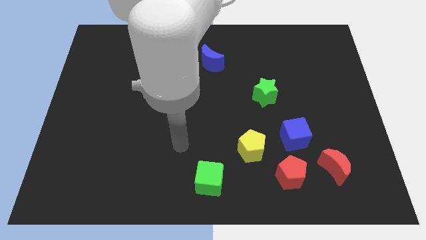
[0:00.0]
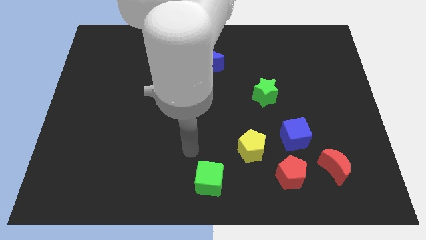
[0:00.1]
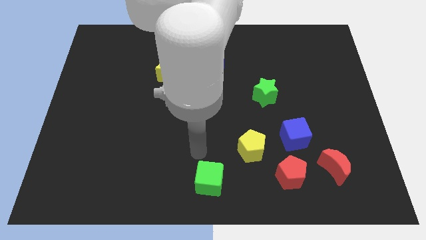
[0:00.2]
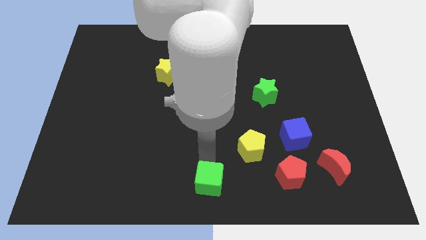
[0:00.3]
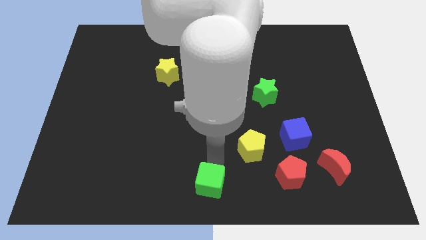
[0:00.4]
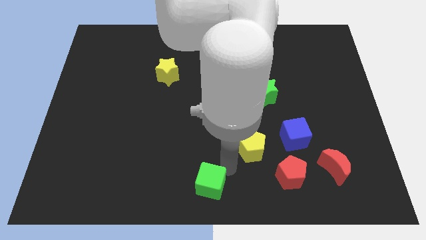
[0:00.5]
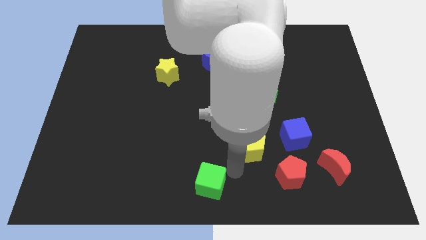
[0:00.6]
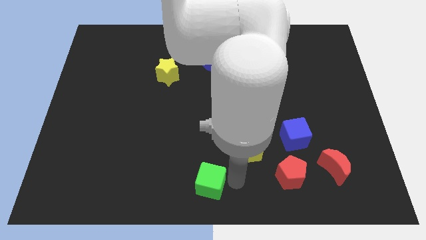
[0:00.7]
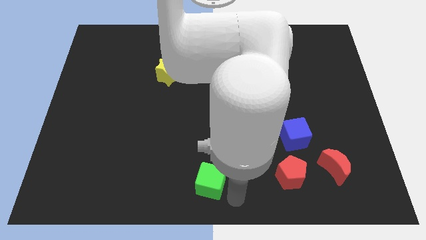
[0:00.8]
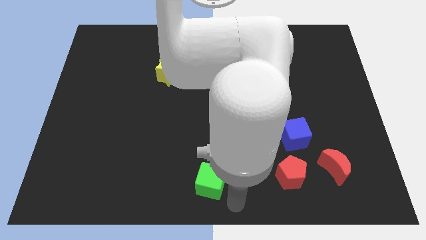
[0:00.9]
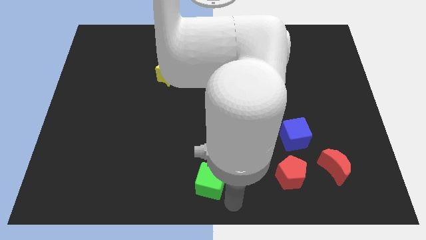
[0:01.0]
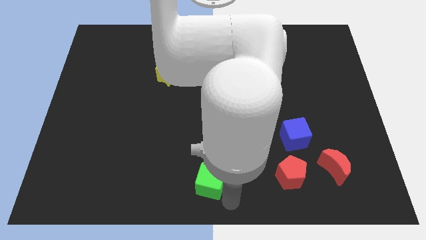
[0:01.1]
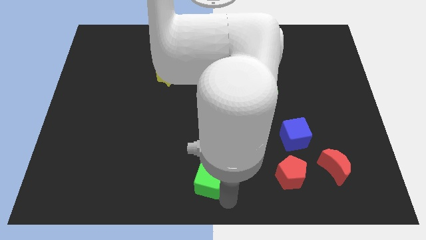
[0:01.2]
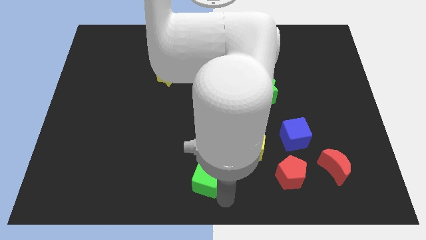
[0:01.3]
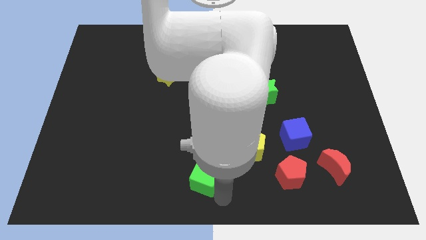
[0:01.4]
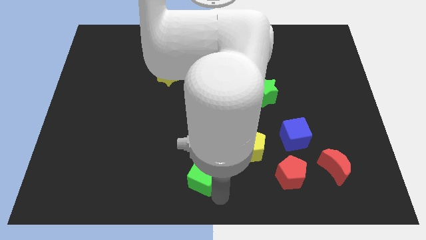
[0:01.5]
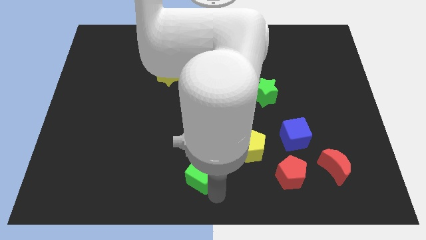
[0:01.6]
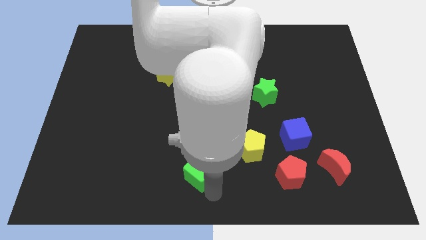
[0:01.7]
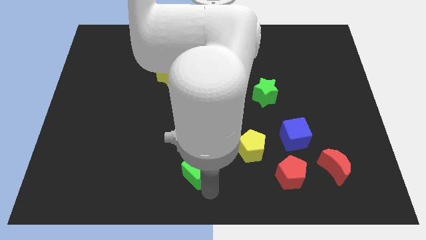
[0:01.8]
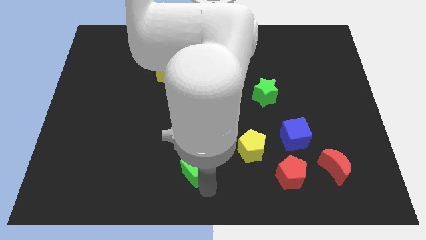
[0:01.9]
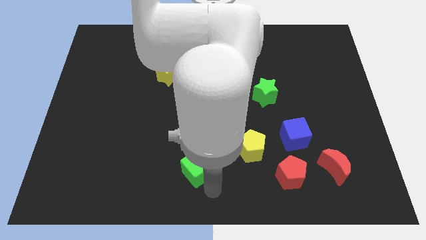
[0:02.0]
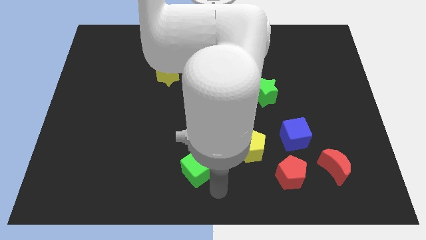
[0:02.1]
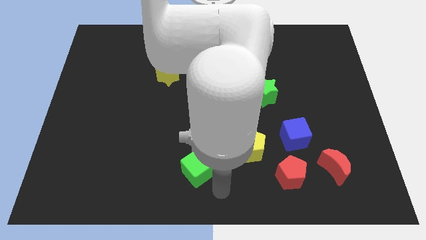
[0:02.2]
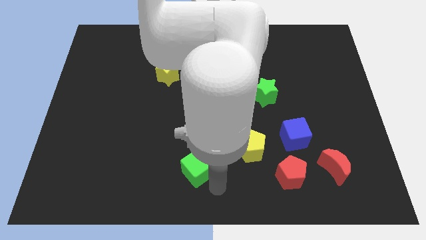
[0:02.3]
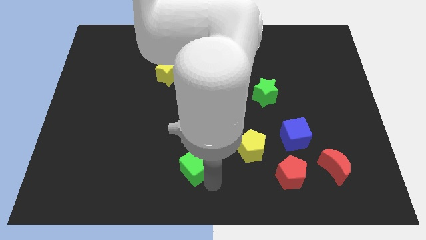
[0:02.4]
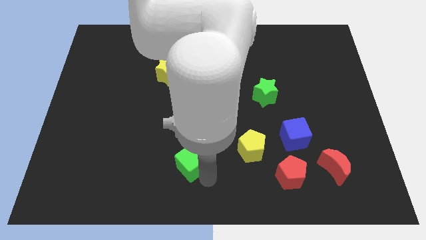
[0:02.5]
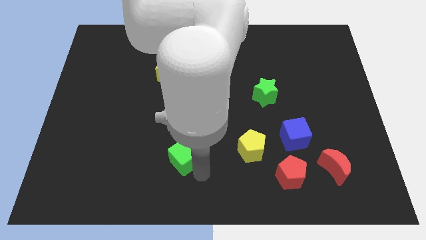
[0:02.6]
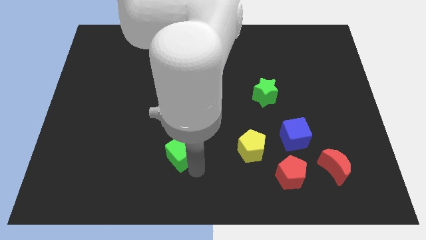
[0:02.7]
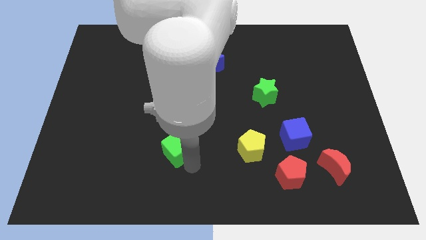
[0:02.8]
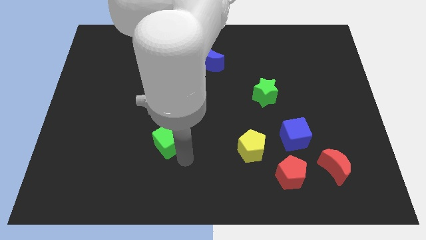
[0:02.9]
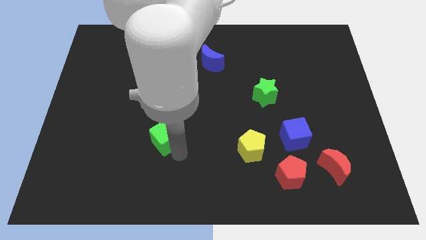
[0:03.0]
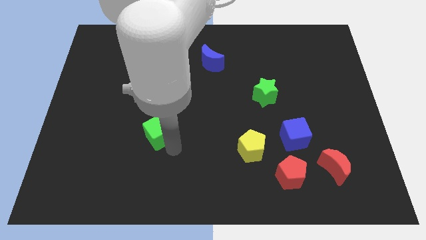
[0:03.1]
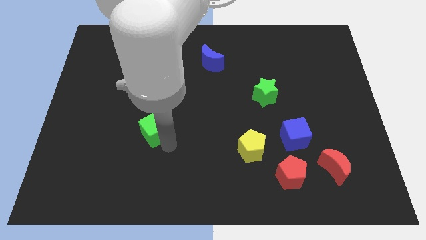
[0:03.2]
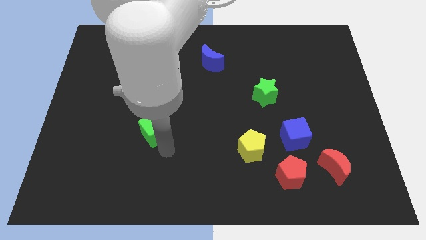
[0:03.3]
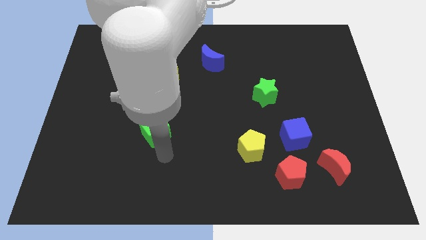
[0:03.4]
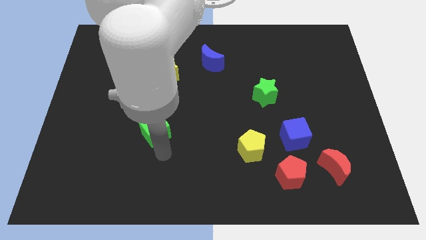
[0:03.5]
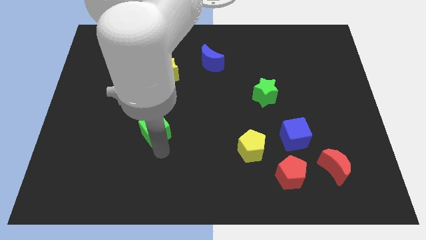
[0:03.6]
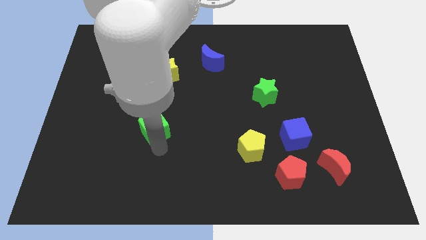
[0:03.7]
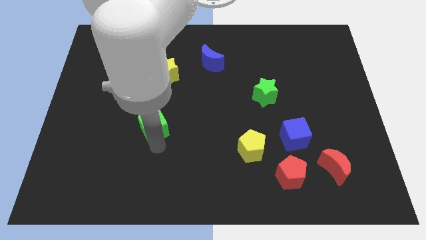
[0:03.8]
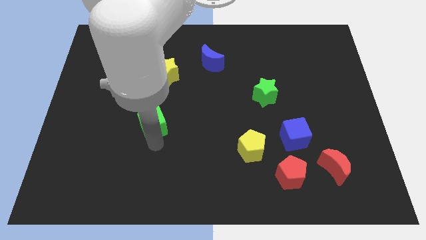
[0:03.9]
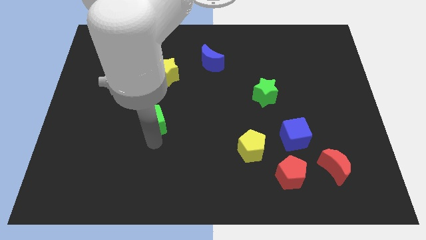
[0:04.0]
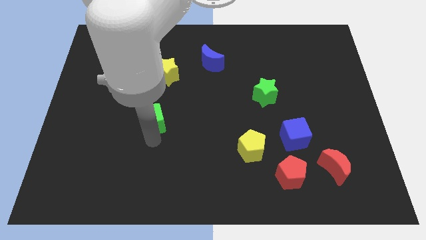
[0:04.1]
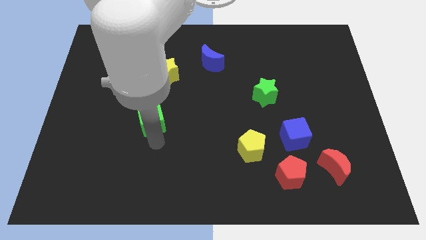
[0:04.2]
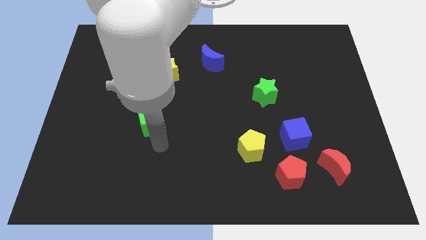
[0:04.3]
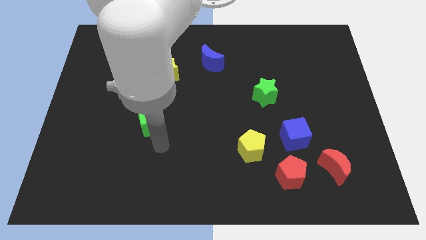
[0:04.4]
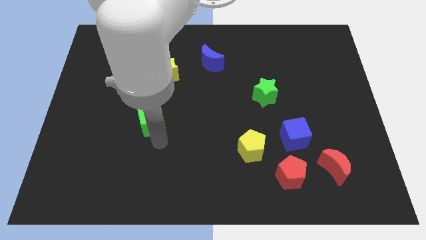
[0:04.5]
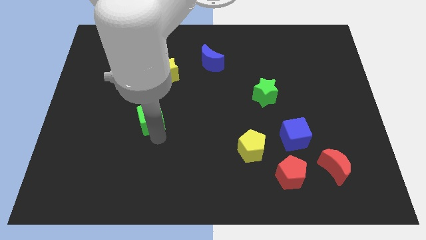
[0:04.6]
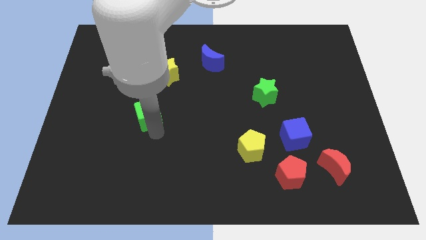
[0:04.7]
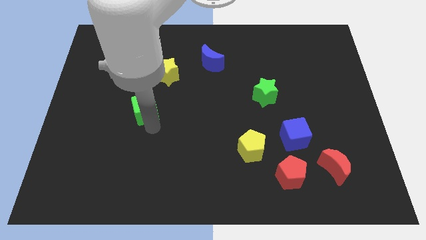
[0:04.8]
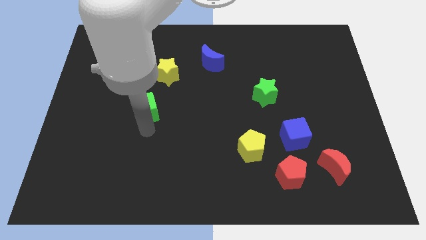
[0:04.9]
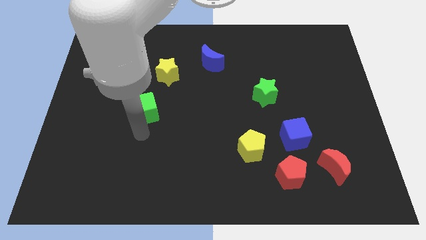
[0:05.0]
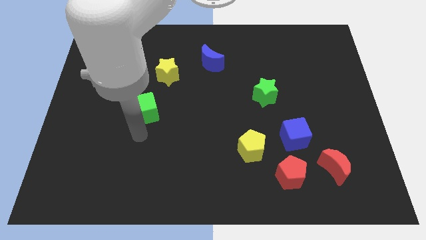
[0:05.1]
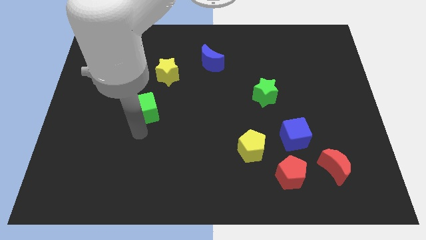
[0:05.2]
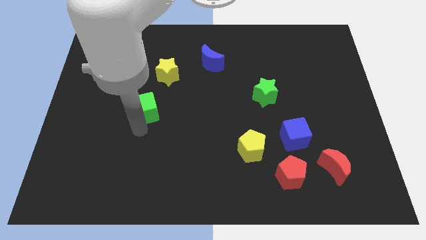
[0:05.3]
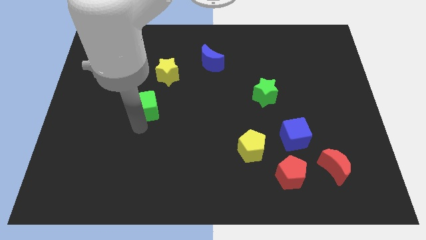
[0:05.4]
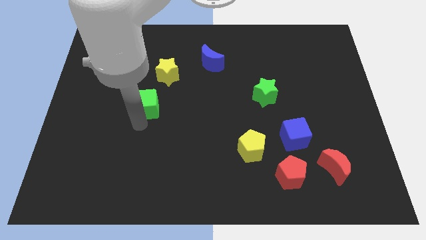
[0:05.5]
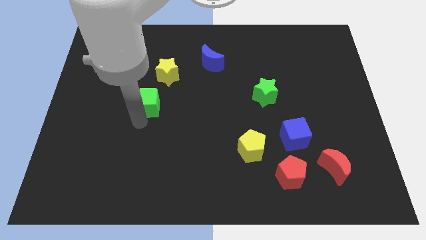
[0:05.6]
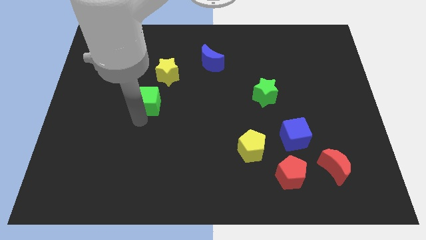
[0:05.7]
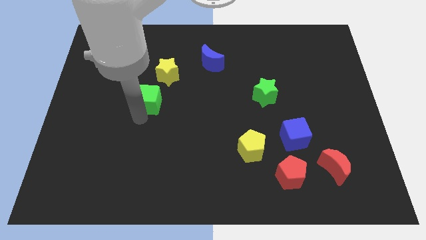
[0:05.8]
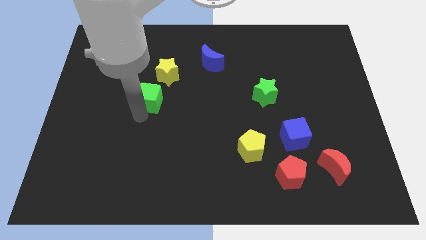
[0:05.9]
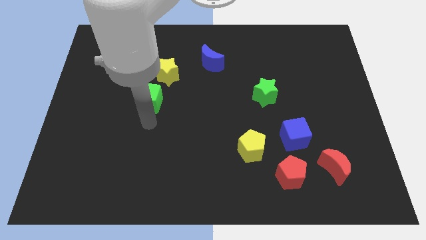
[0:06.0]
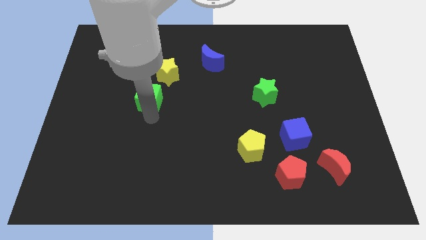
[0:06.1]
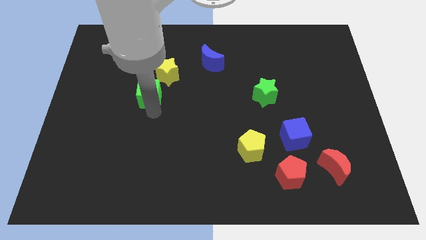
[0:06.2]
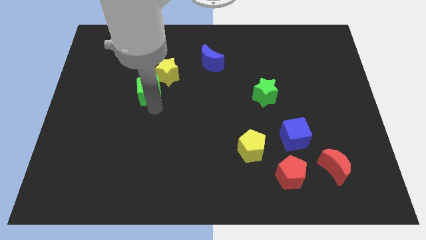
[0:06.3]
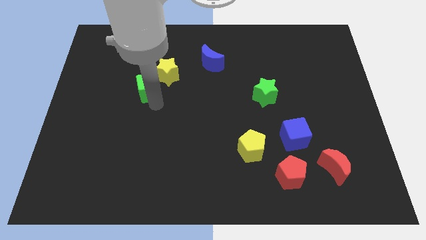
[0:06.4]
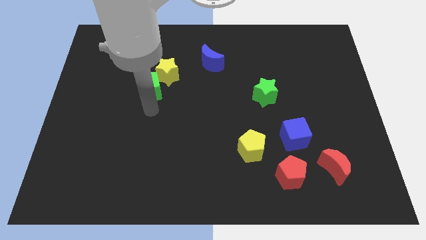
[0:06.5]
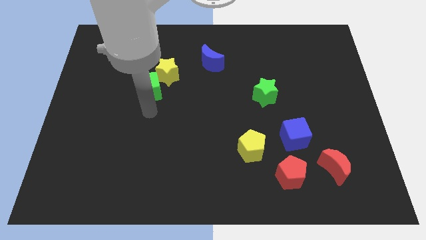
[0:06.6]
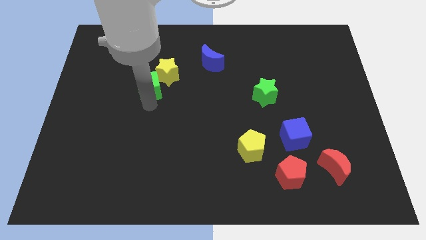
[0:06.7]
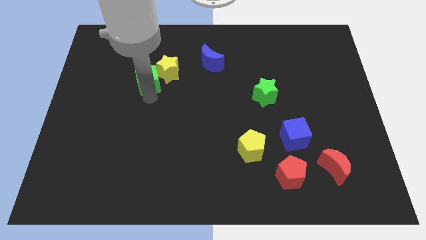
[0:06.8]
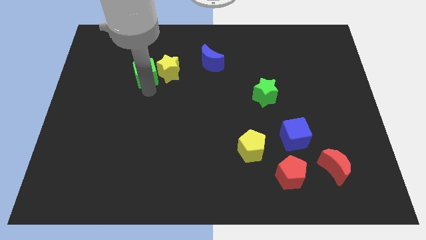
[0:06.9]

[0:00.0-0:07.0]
move the green cube diagonally up and to the left of the yellow star
